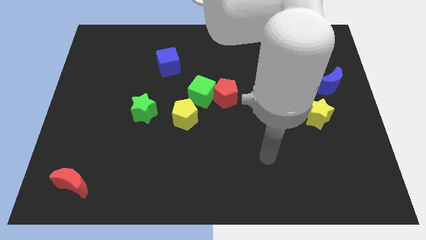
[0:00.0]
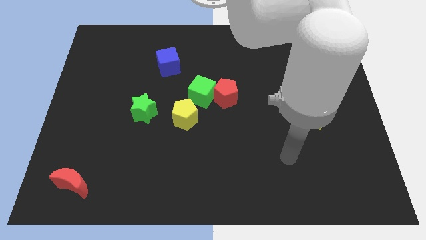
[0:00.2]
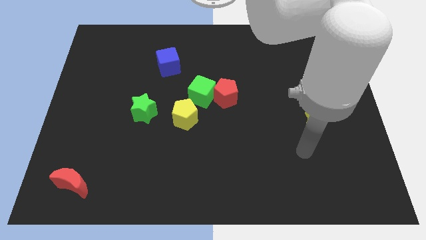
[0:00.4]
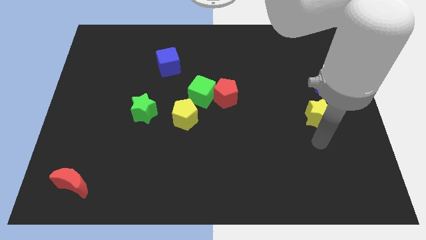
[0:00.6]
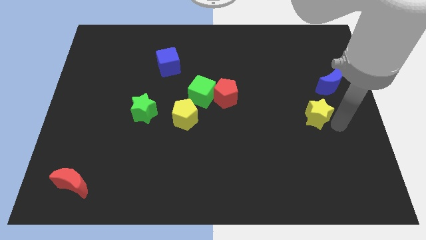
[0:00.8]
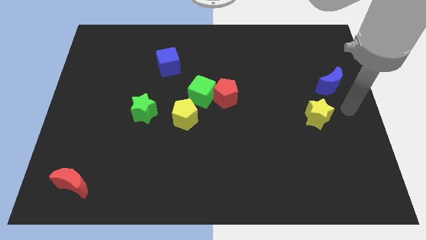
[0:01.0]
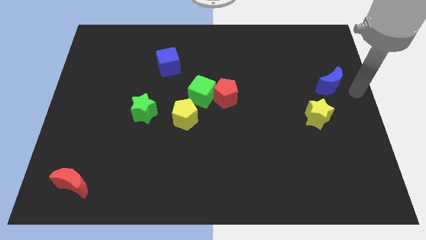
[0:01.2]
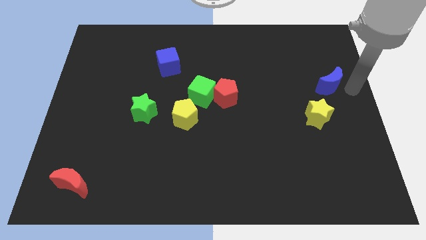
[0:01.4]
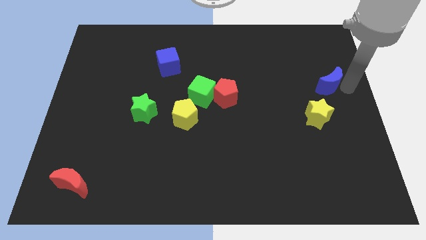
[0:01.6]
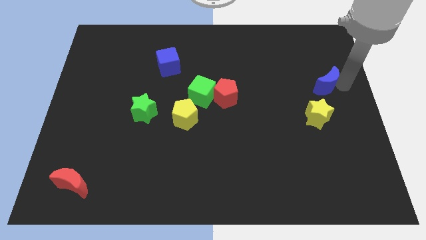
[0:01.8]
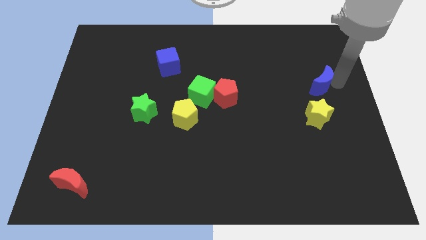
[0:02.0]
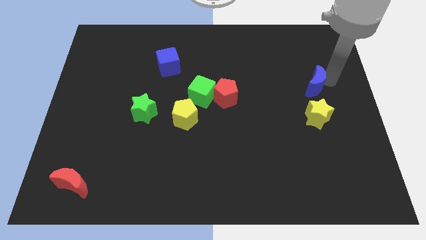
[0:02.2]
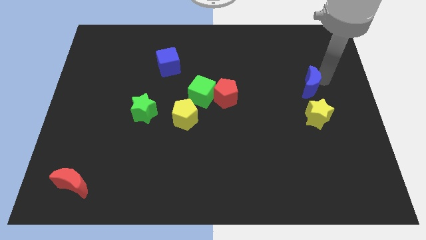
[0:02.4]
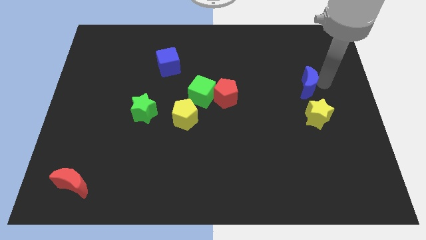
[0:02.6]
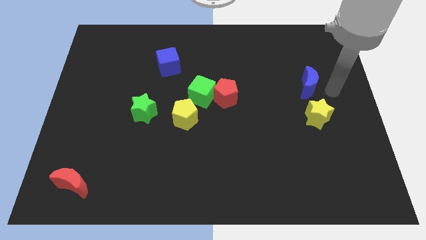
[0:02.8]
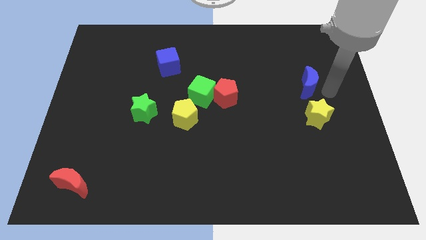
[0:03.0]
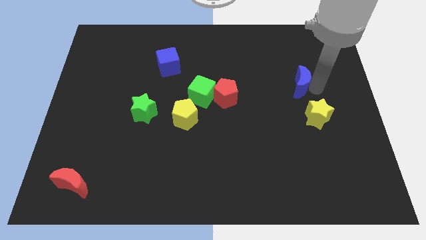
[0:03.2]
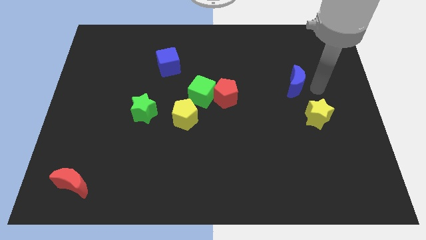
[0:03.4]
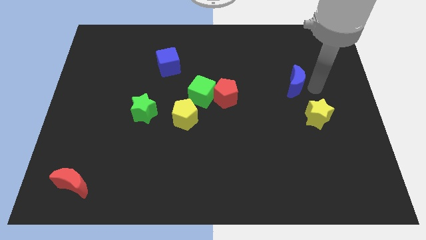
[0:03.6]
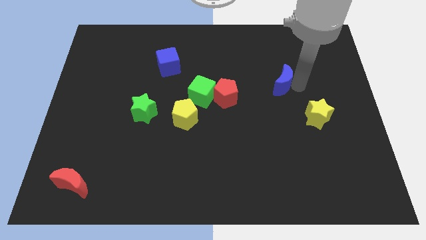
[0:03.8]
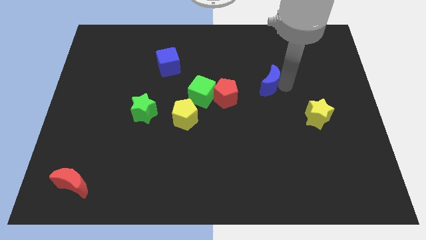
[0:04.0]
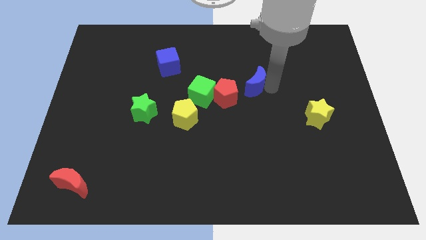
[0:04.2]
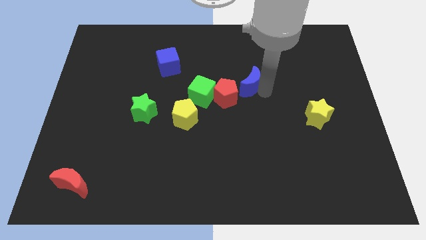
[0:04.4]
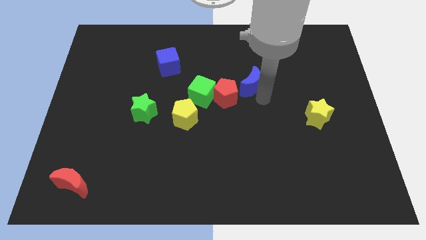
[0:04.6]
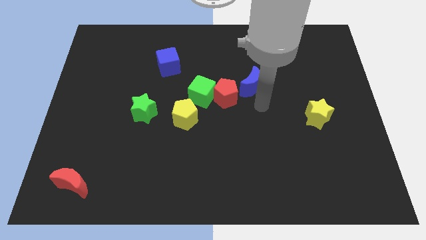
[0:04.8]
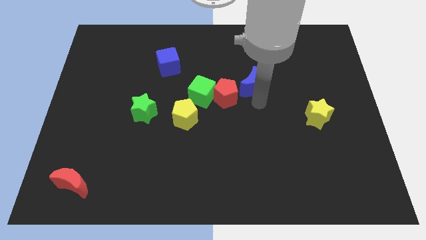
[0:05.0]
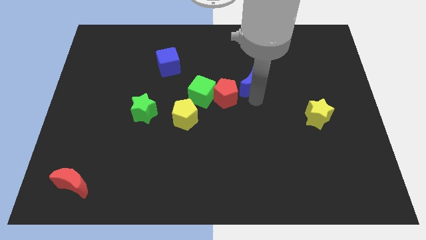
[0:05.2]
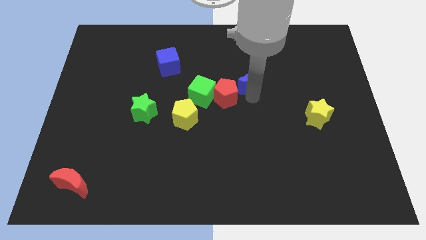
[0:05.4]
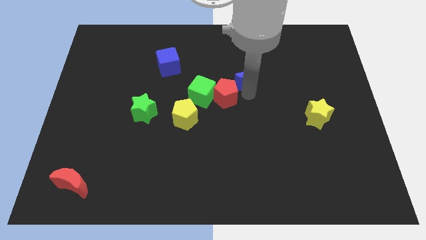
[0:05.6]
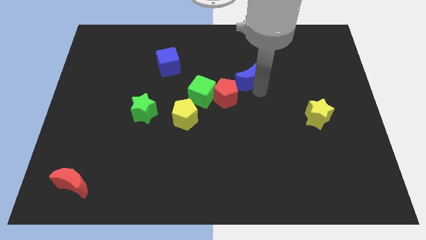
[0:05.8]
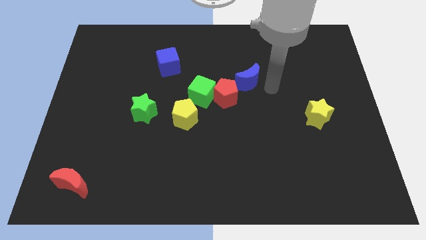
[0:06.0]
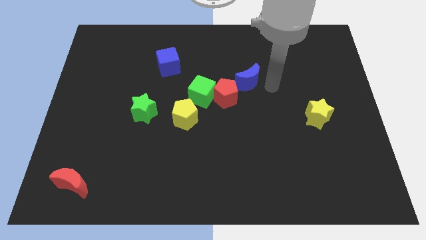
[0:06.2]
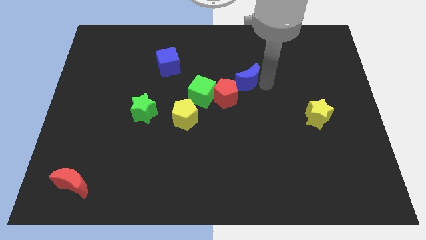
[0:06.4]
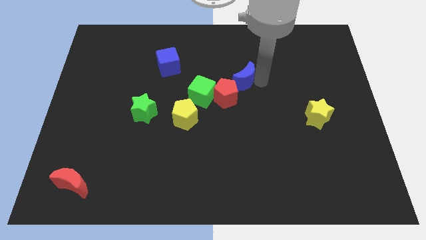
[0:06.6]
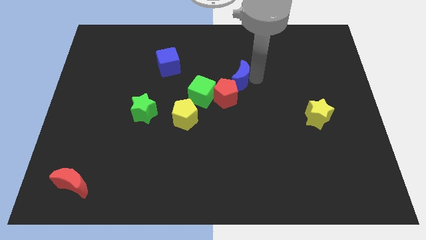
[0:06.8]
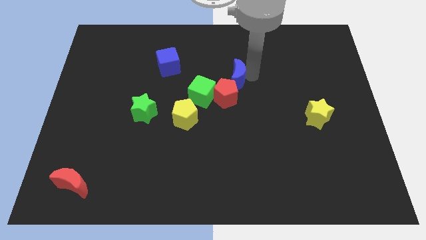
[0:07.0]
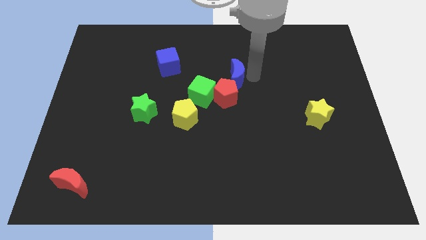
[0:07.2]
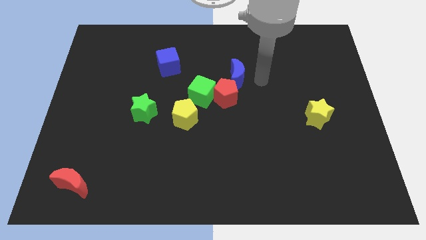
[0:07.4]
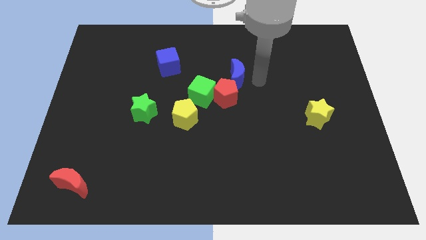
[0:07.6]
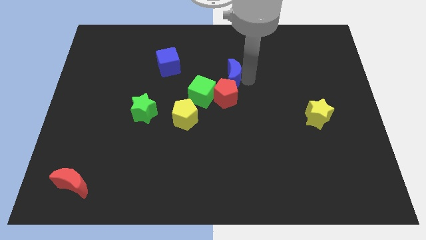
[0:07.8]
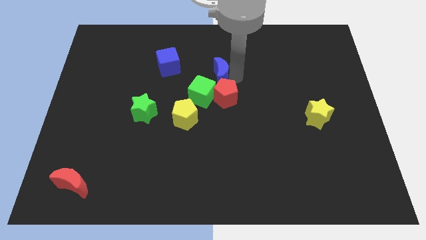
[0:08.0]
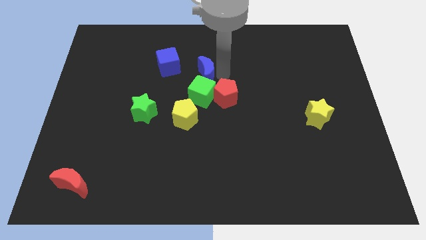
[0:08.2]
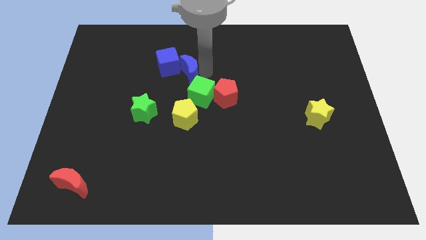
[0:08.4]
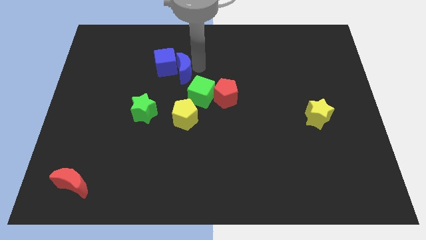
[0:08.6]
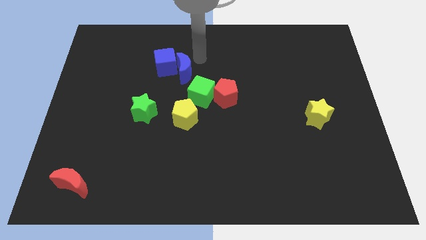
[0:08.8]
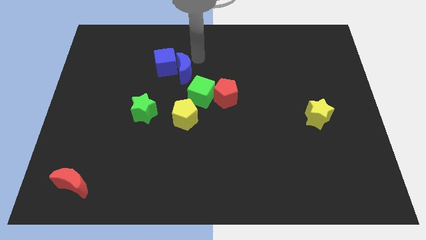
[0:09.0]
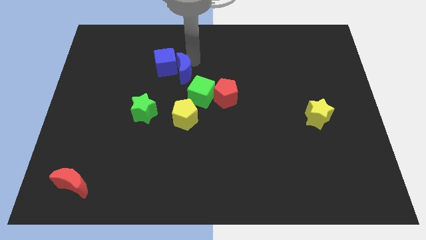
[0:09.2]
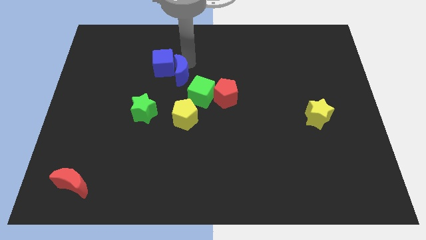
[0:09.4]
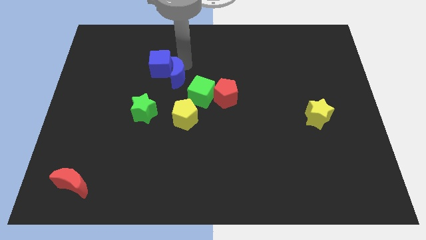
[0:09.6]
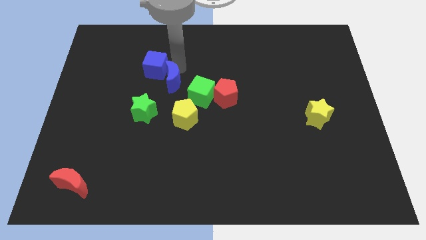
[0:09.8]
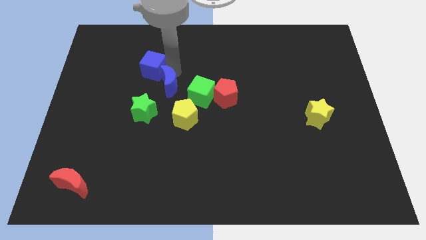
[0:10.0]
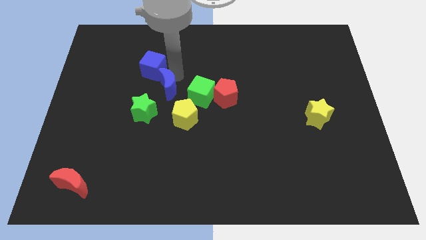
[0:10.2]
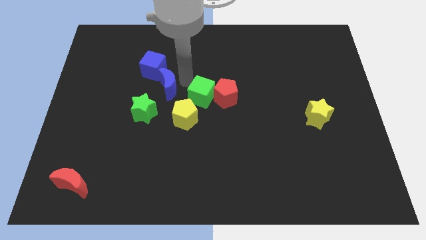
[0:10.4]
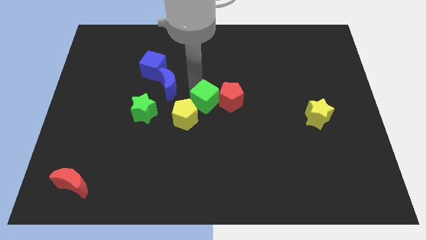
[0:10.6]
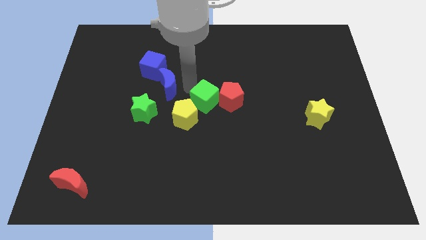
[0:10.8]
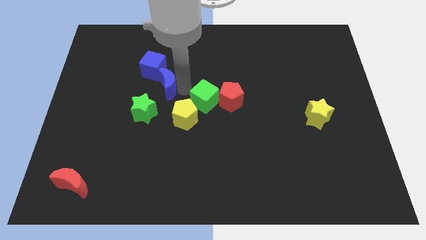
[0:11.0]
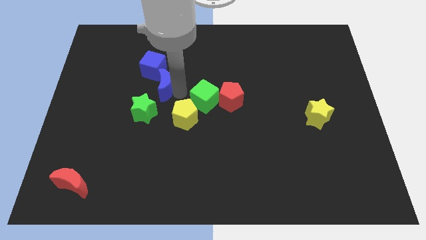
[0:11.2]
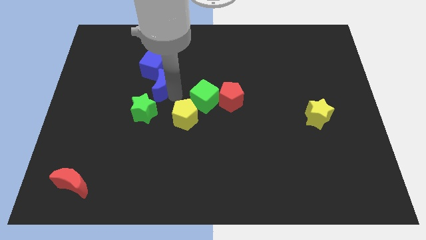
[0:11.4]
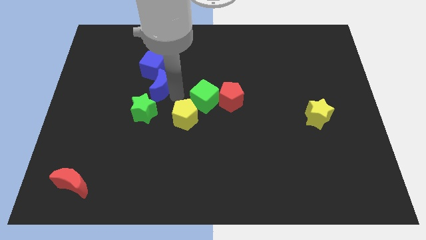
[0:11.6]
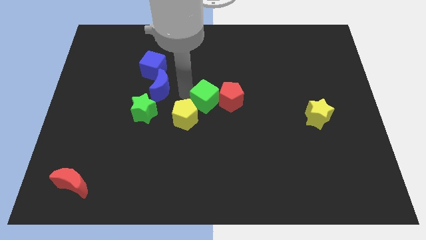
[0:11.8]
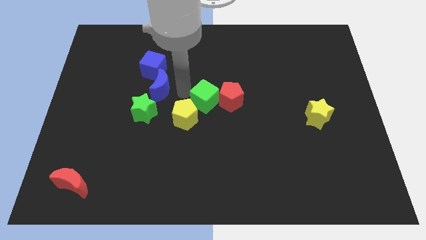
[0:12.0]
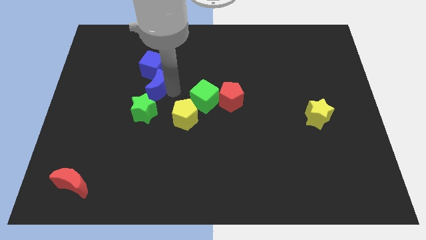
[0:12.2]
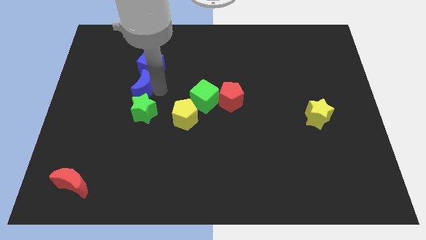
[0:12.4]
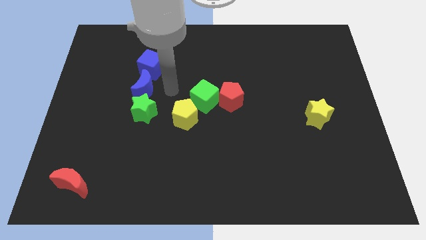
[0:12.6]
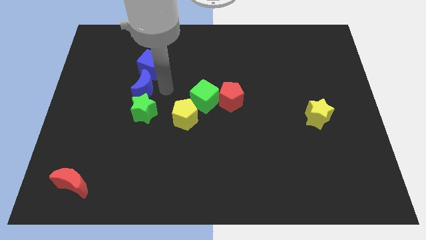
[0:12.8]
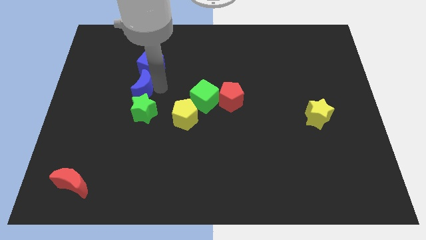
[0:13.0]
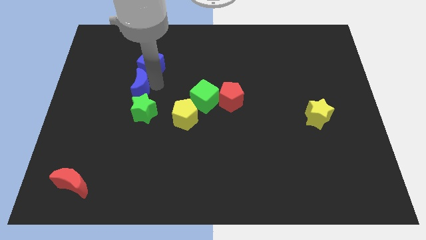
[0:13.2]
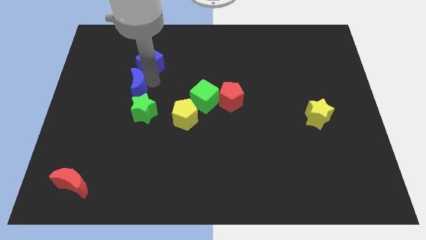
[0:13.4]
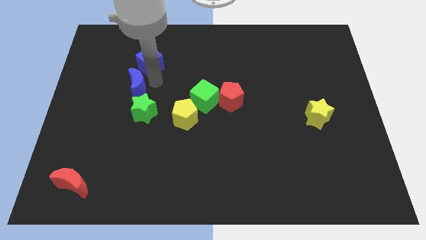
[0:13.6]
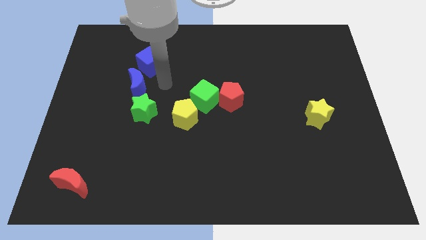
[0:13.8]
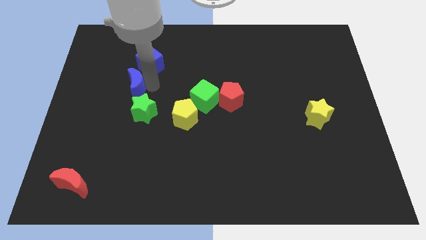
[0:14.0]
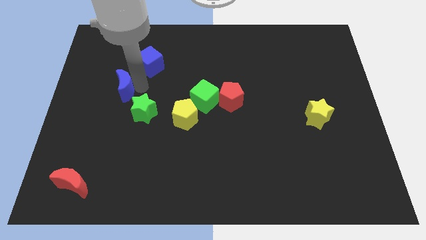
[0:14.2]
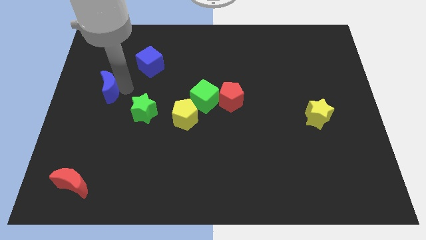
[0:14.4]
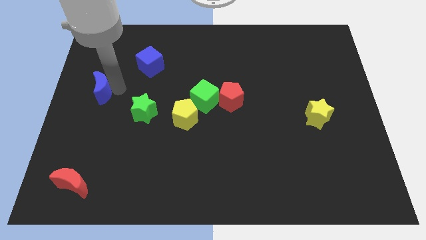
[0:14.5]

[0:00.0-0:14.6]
slide the blue moon to the left side
